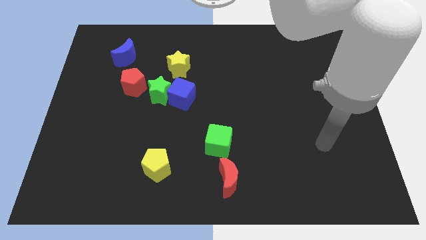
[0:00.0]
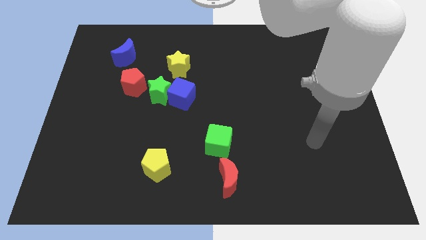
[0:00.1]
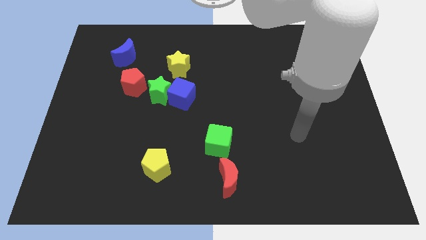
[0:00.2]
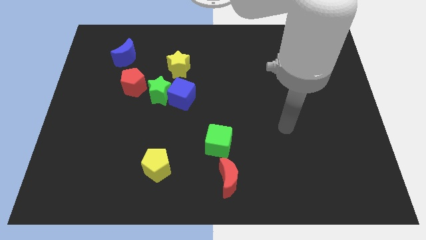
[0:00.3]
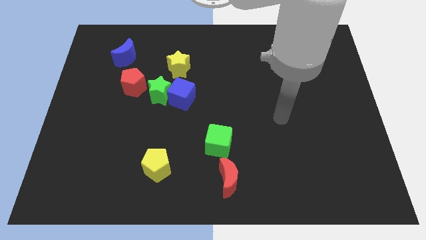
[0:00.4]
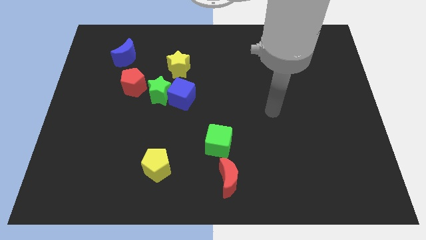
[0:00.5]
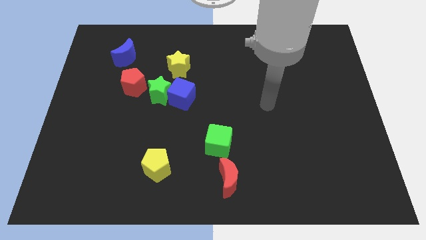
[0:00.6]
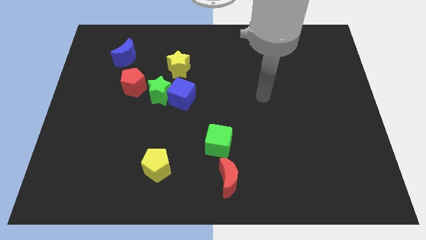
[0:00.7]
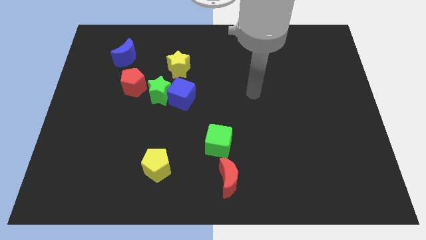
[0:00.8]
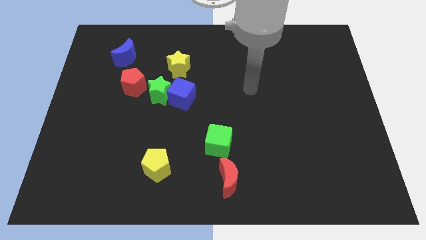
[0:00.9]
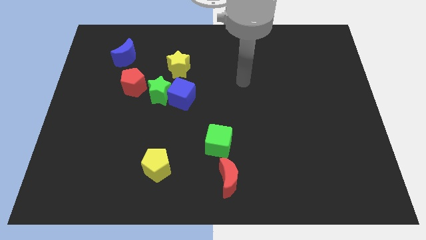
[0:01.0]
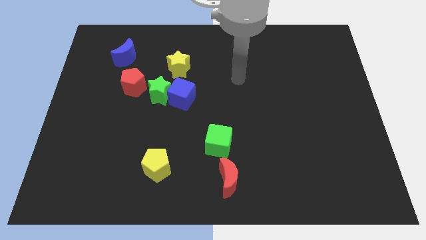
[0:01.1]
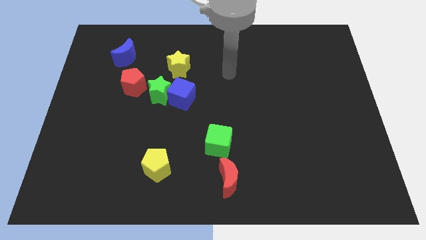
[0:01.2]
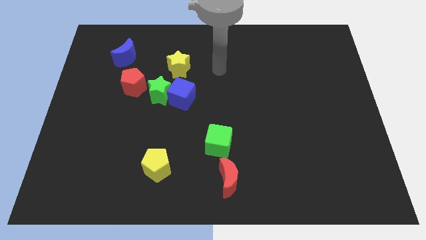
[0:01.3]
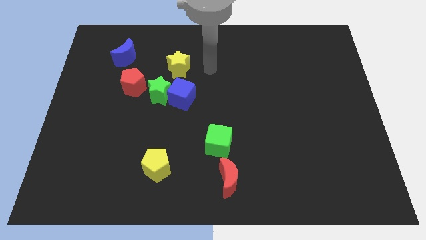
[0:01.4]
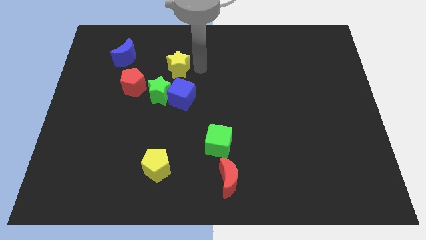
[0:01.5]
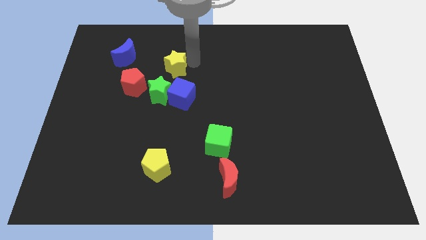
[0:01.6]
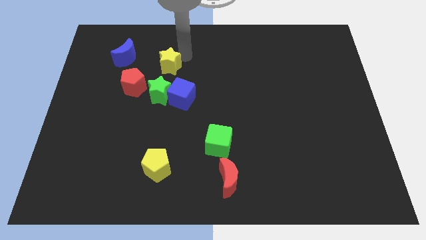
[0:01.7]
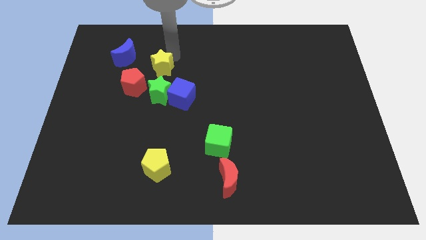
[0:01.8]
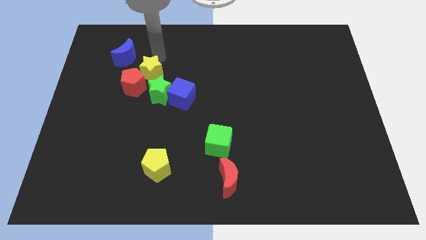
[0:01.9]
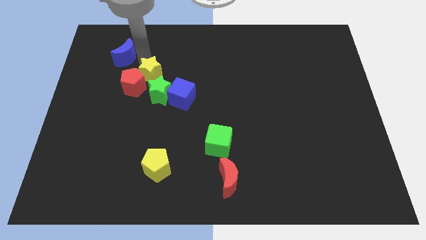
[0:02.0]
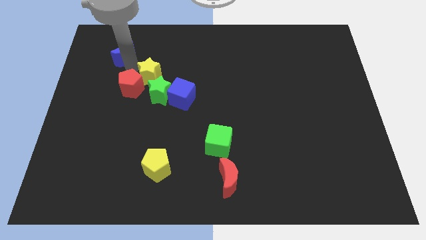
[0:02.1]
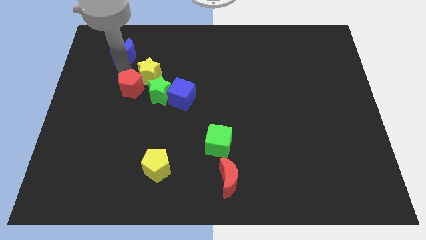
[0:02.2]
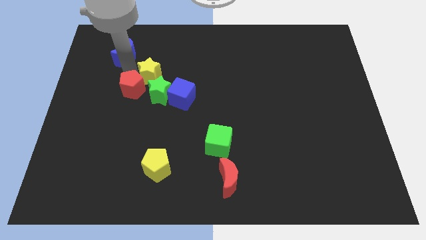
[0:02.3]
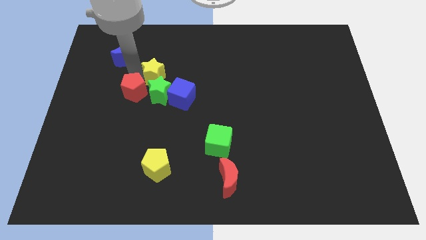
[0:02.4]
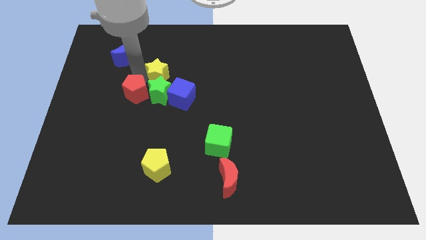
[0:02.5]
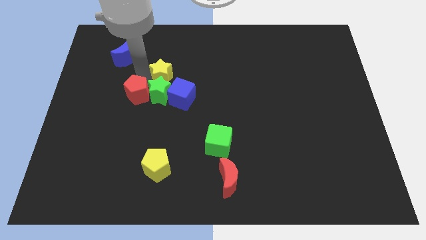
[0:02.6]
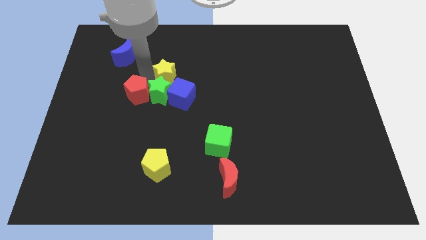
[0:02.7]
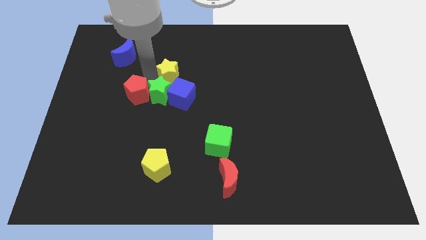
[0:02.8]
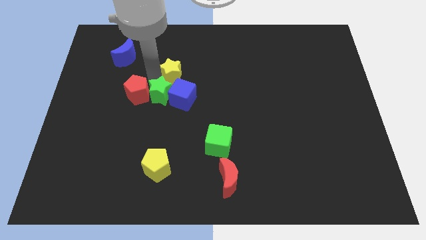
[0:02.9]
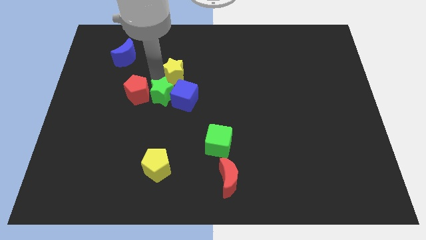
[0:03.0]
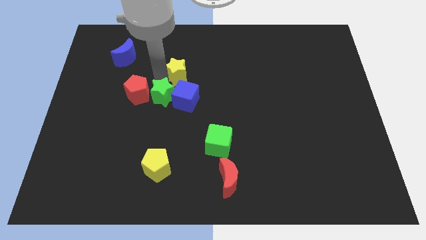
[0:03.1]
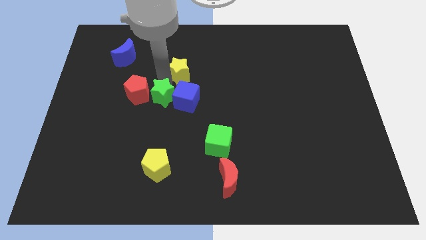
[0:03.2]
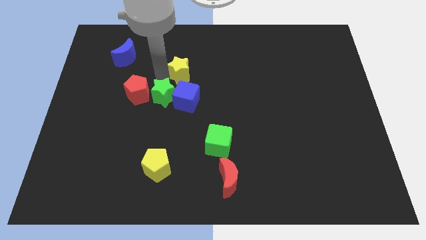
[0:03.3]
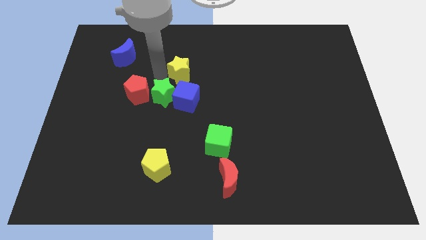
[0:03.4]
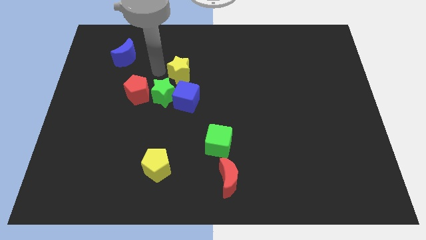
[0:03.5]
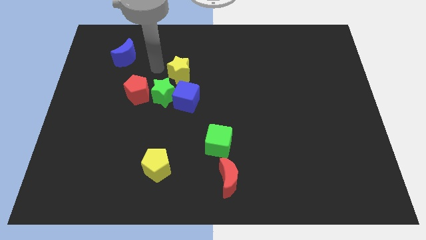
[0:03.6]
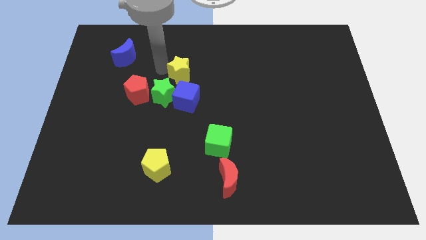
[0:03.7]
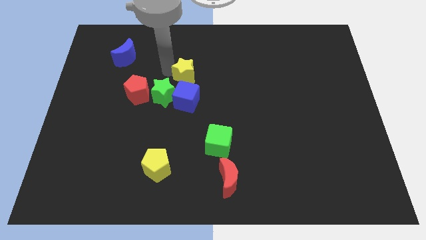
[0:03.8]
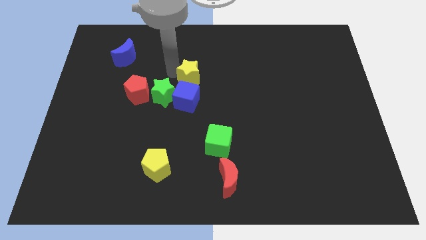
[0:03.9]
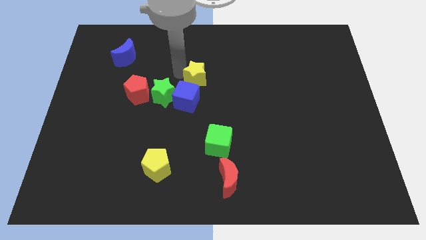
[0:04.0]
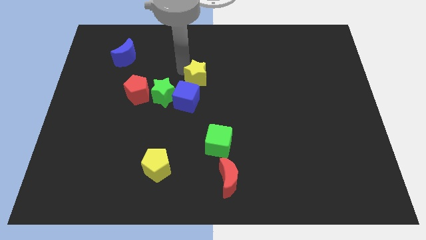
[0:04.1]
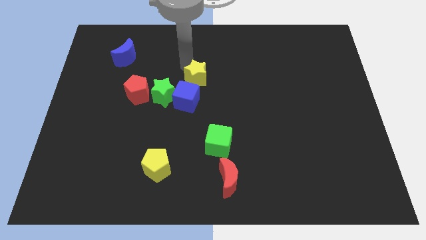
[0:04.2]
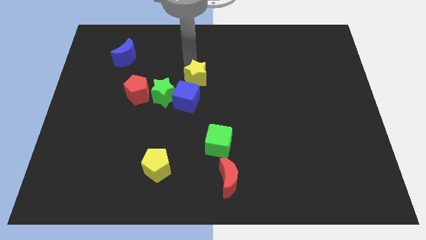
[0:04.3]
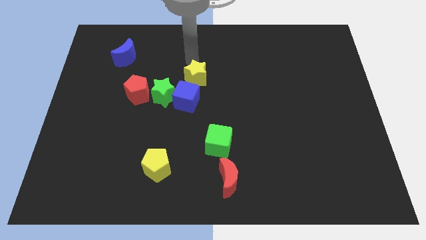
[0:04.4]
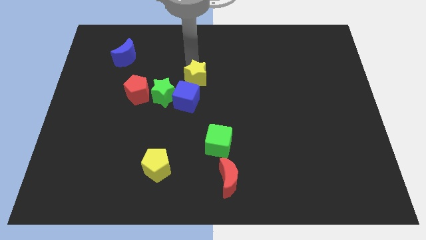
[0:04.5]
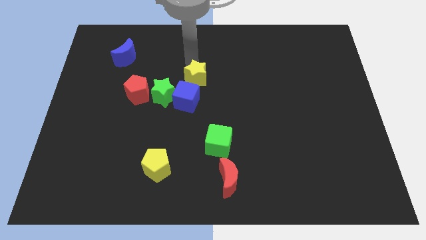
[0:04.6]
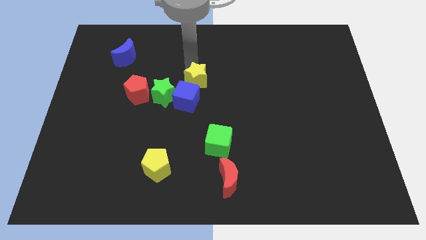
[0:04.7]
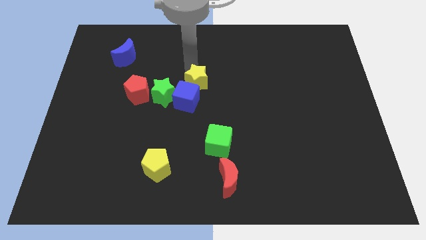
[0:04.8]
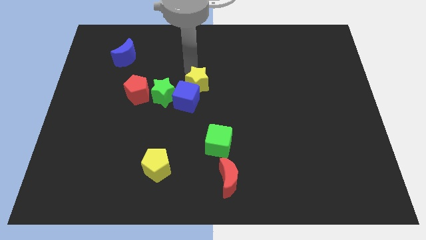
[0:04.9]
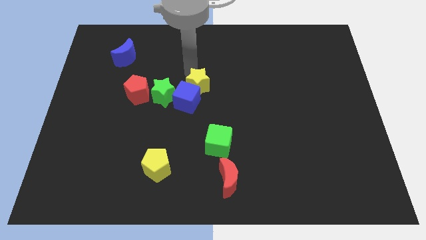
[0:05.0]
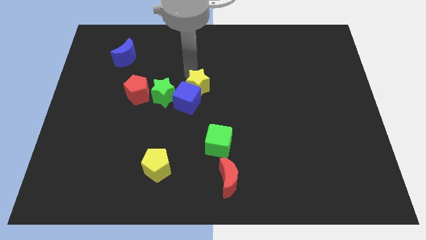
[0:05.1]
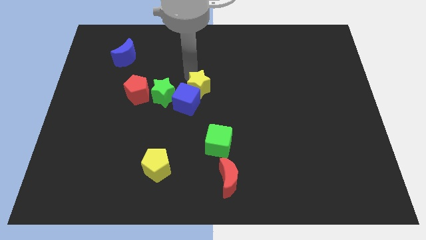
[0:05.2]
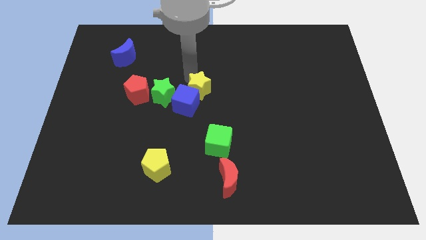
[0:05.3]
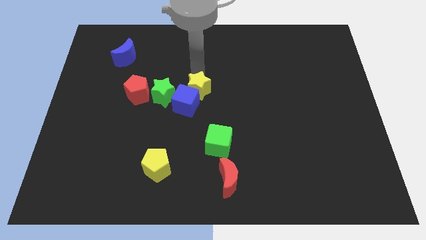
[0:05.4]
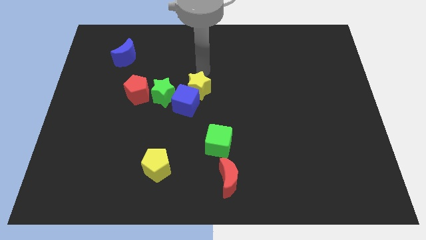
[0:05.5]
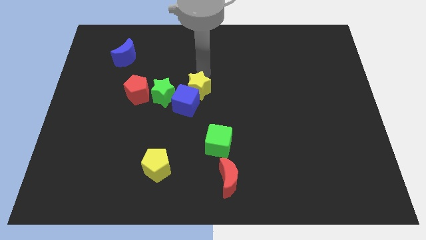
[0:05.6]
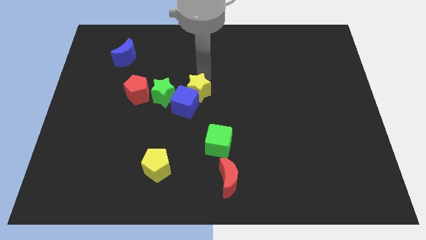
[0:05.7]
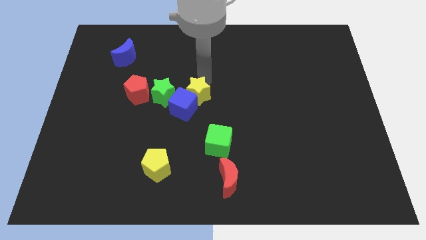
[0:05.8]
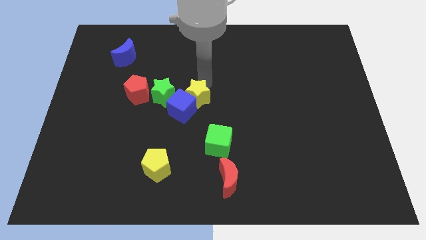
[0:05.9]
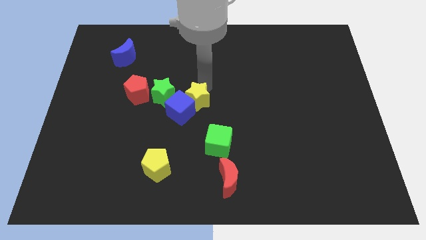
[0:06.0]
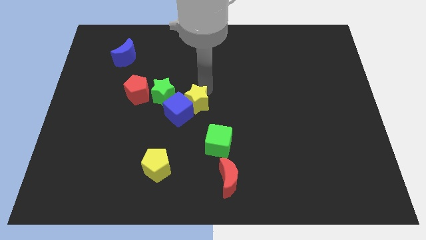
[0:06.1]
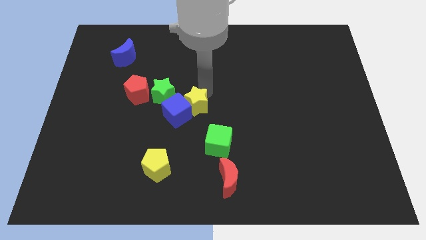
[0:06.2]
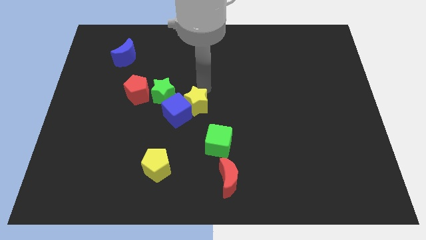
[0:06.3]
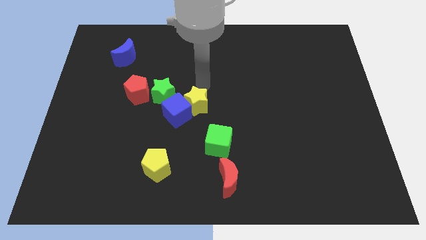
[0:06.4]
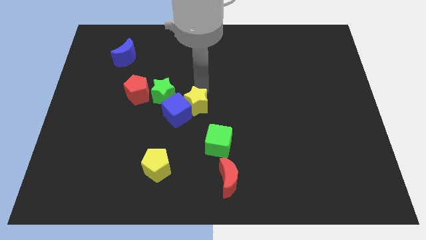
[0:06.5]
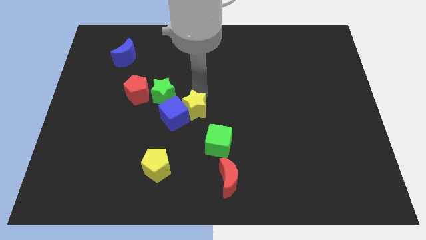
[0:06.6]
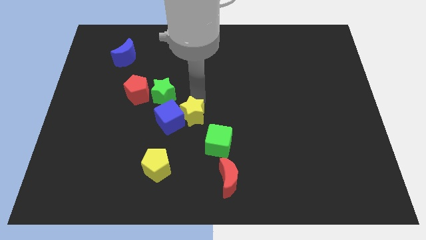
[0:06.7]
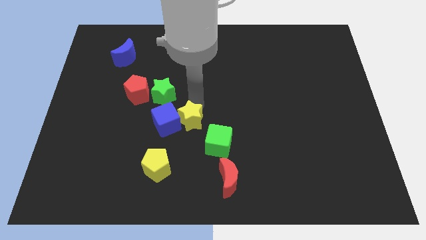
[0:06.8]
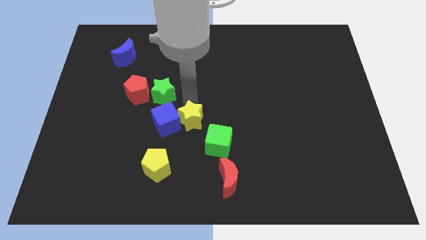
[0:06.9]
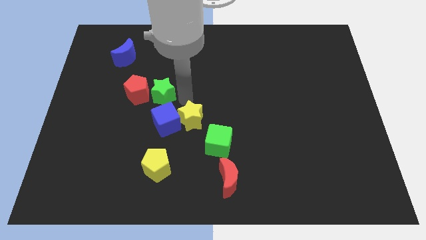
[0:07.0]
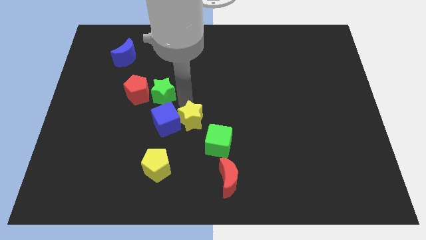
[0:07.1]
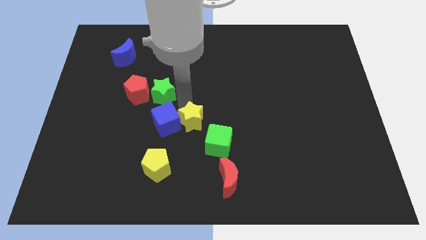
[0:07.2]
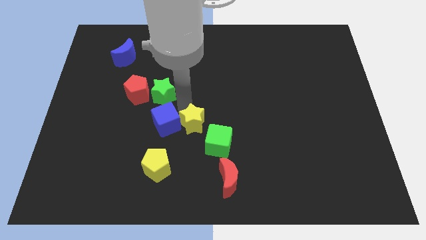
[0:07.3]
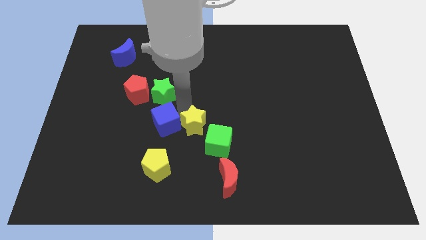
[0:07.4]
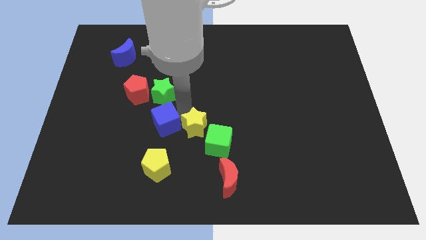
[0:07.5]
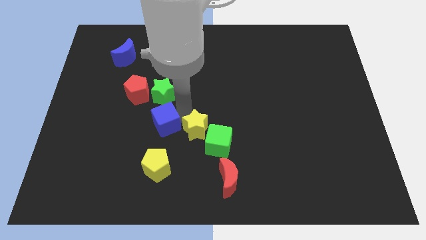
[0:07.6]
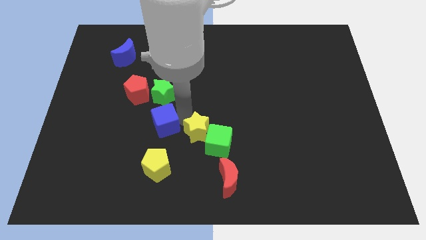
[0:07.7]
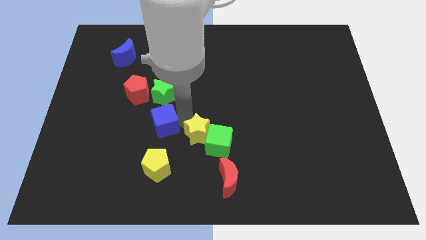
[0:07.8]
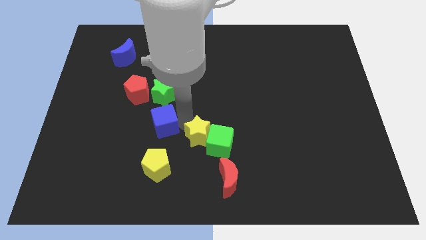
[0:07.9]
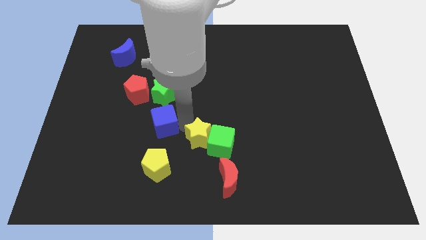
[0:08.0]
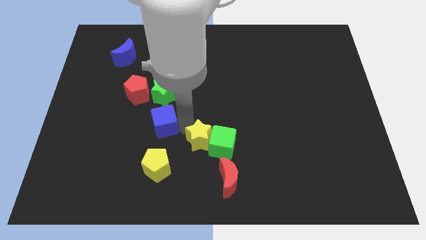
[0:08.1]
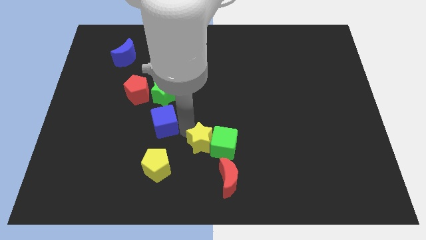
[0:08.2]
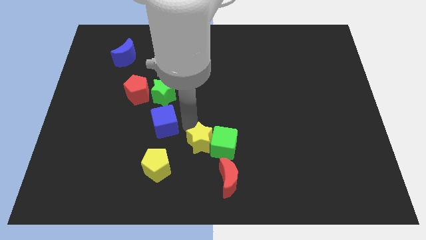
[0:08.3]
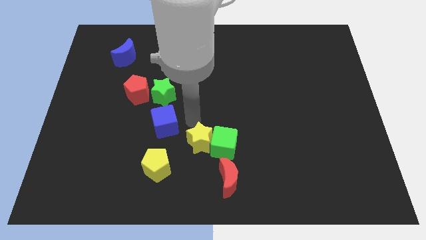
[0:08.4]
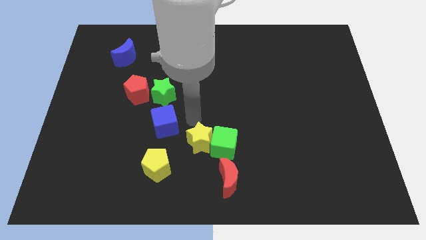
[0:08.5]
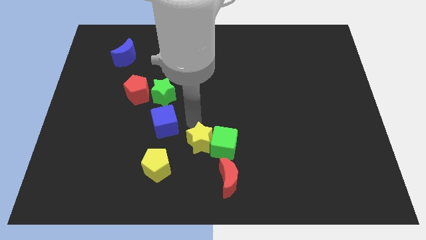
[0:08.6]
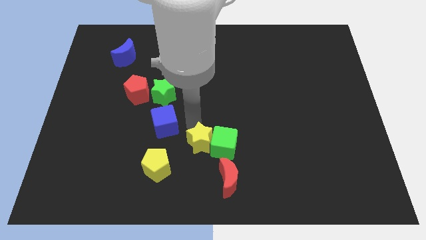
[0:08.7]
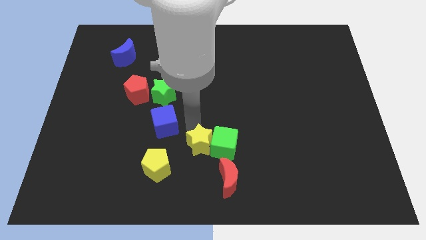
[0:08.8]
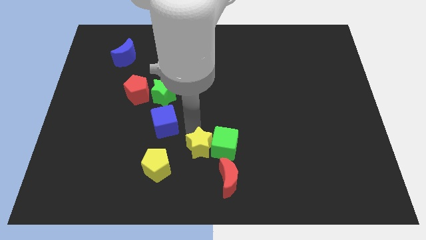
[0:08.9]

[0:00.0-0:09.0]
slide the yellow star to the right side of the yellow pentagon
